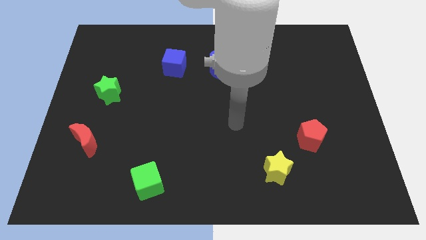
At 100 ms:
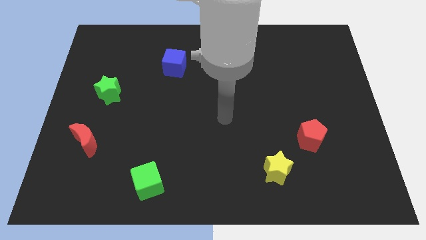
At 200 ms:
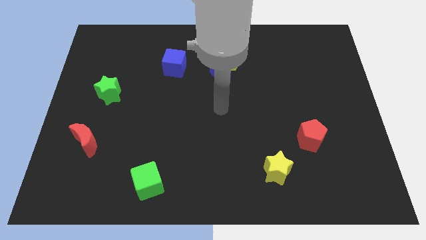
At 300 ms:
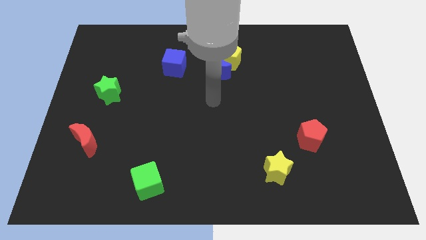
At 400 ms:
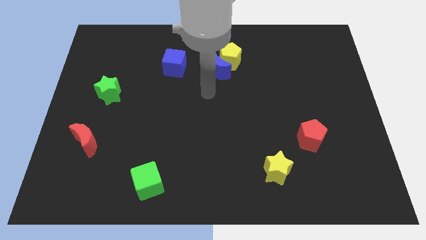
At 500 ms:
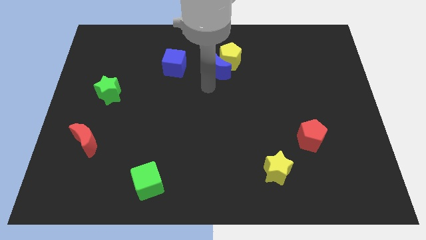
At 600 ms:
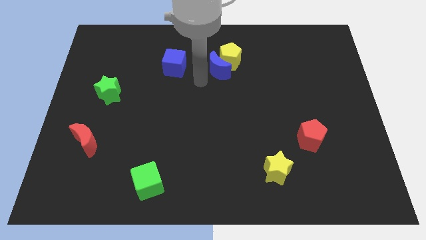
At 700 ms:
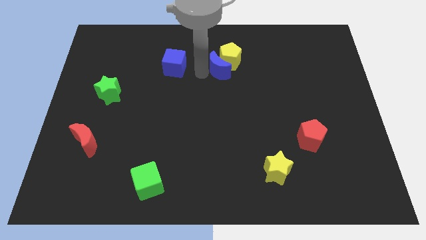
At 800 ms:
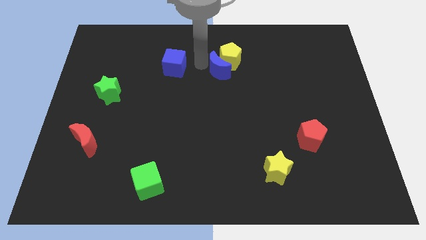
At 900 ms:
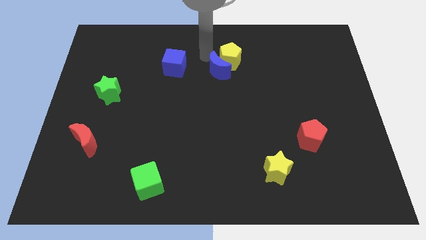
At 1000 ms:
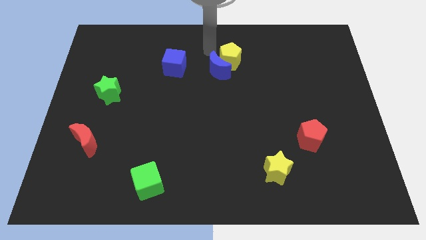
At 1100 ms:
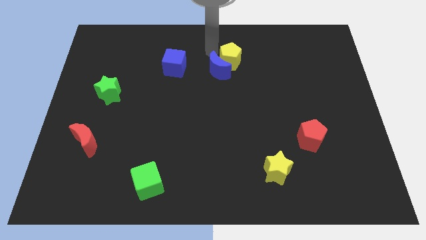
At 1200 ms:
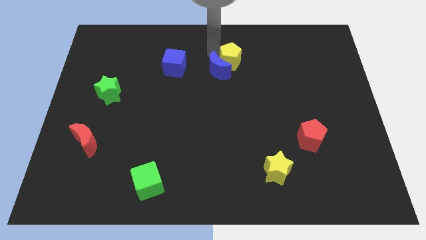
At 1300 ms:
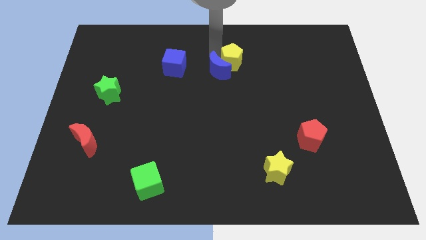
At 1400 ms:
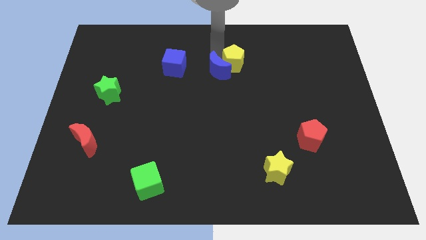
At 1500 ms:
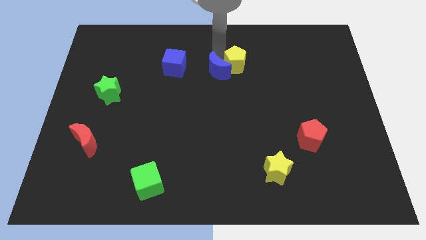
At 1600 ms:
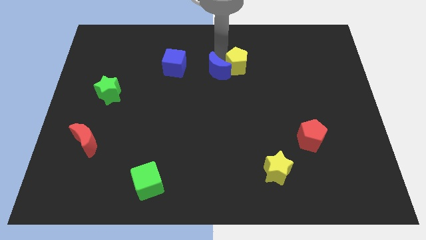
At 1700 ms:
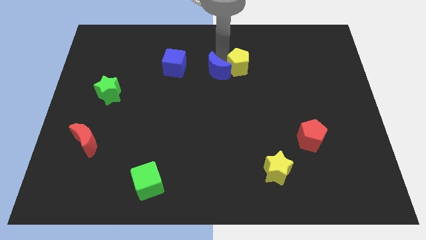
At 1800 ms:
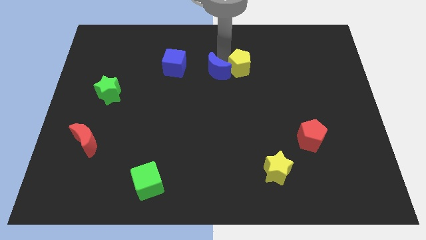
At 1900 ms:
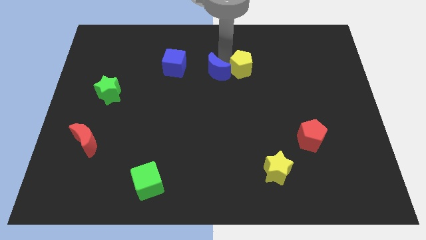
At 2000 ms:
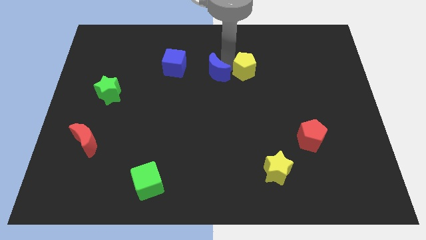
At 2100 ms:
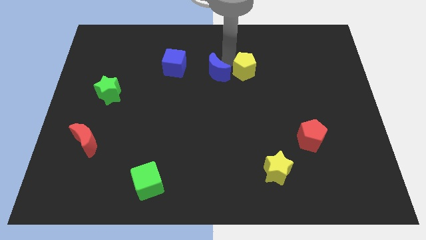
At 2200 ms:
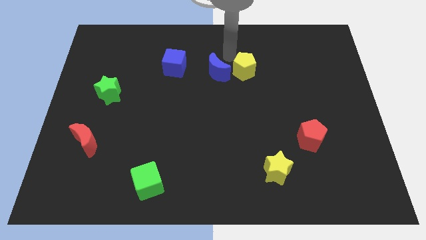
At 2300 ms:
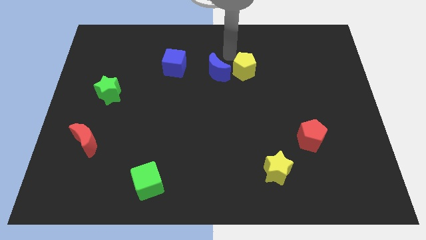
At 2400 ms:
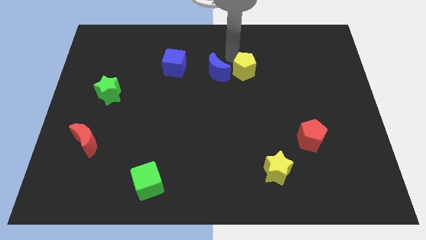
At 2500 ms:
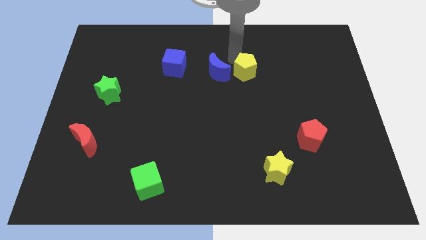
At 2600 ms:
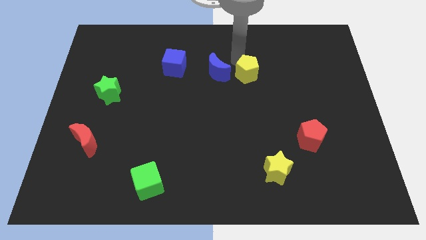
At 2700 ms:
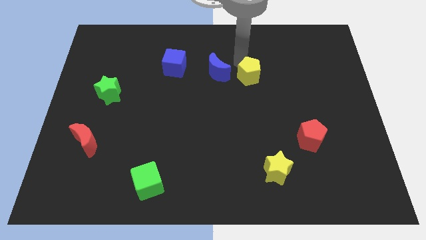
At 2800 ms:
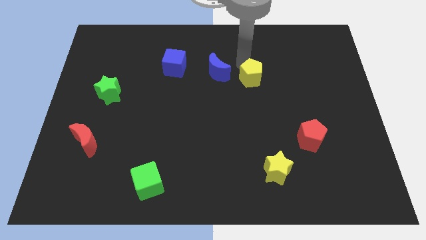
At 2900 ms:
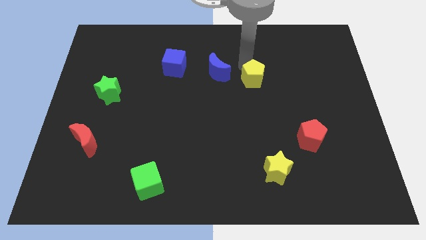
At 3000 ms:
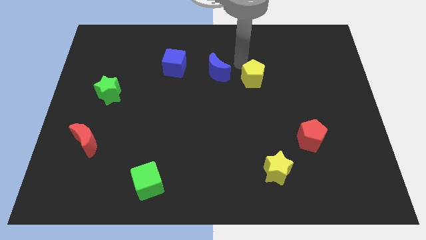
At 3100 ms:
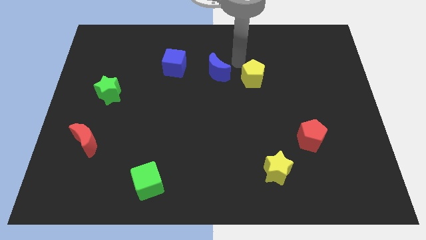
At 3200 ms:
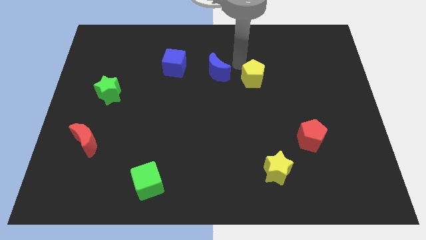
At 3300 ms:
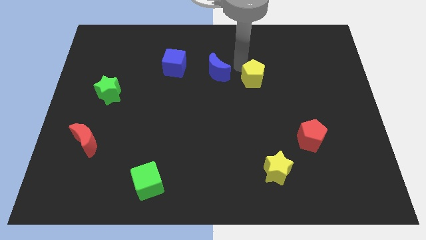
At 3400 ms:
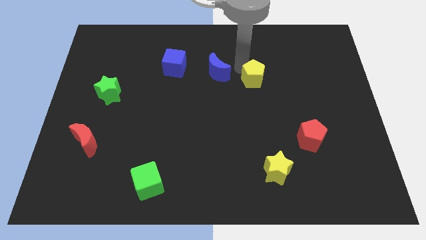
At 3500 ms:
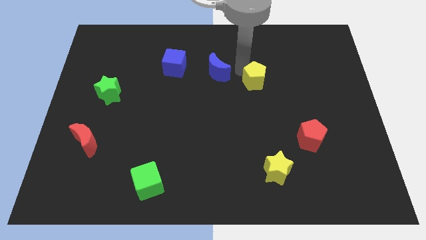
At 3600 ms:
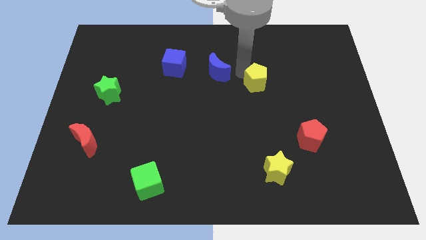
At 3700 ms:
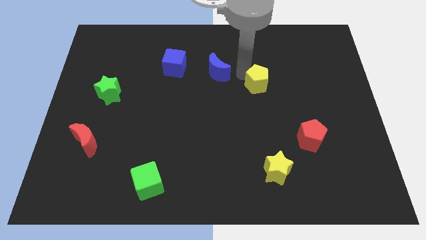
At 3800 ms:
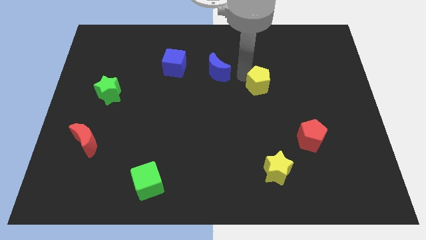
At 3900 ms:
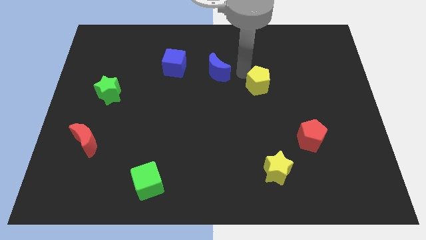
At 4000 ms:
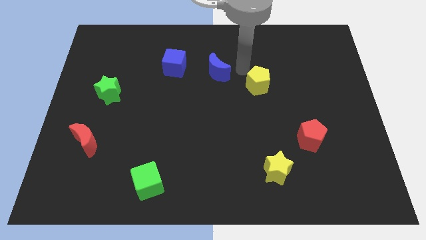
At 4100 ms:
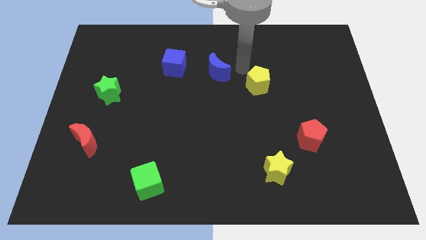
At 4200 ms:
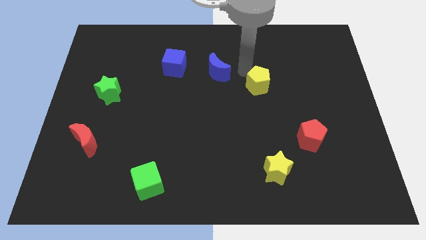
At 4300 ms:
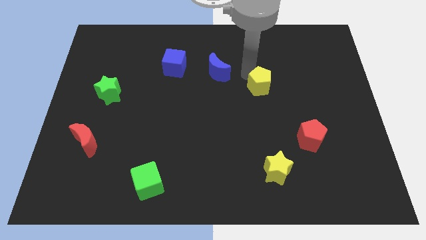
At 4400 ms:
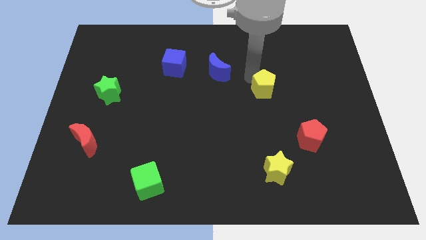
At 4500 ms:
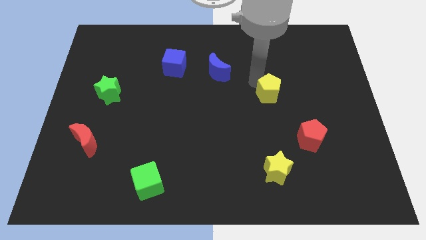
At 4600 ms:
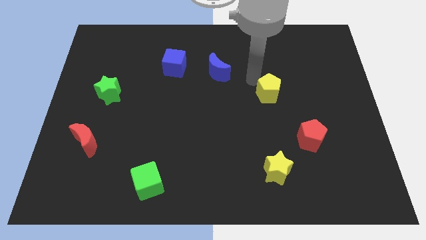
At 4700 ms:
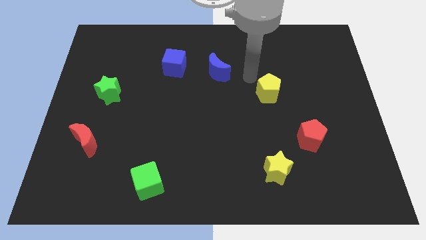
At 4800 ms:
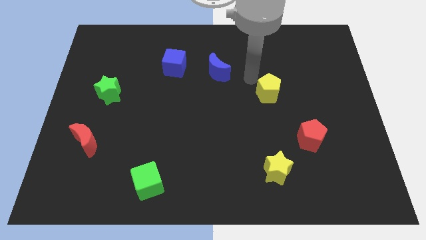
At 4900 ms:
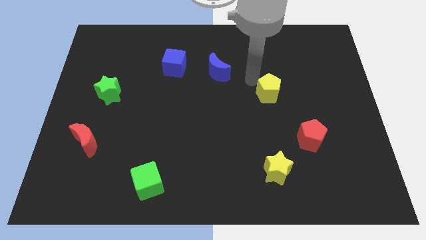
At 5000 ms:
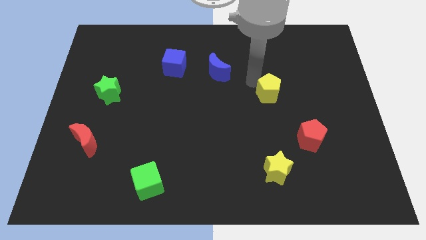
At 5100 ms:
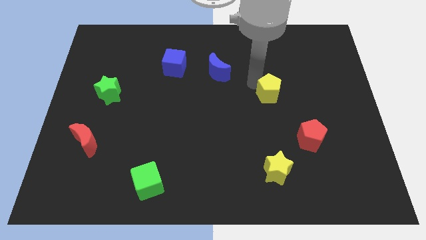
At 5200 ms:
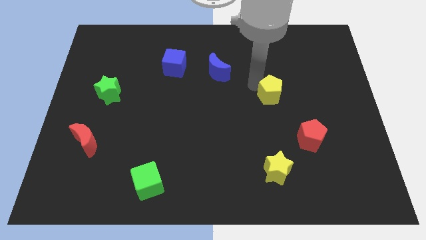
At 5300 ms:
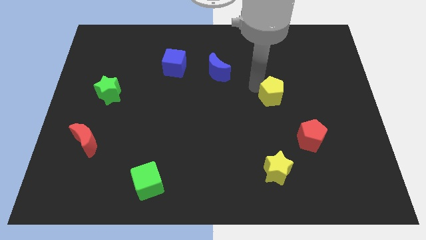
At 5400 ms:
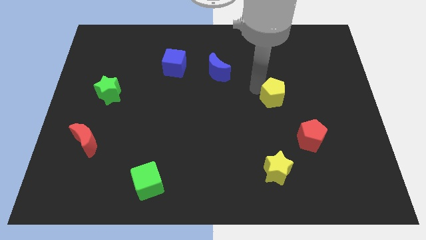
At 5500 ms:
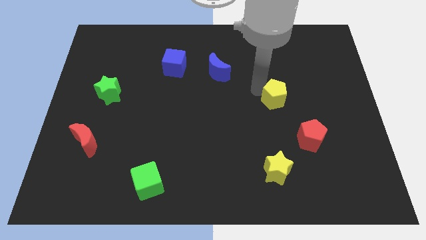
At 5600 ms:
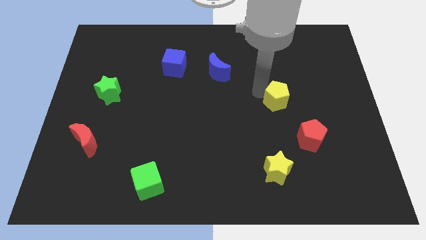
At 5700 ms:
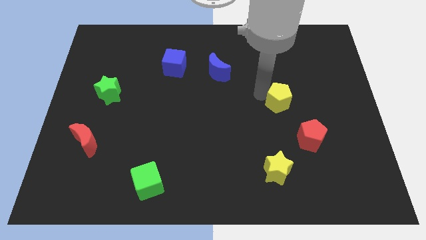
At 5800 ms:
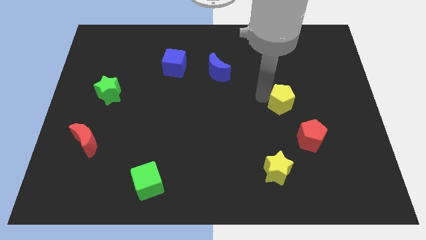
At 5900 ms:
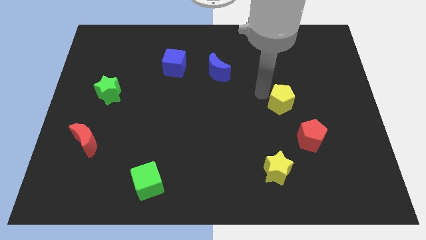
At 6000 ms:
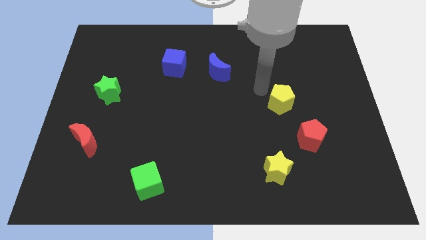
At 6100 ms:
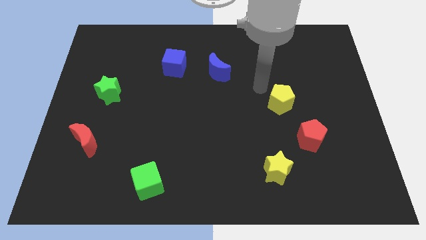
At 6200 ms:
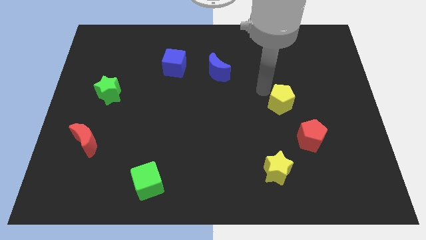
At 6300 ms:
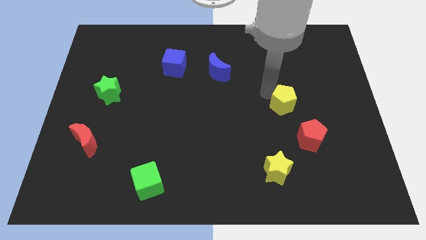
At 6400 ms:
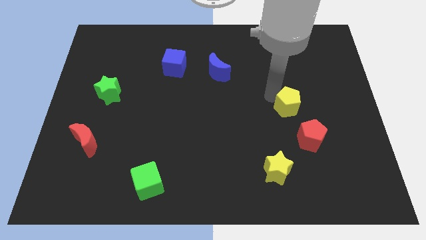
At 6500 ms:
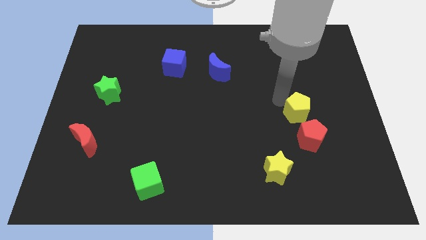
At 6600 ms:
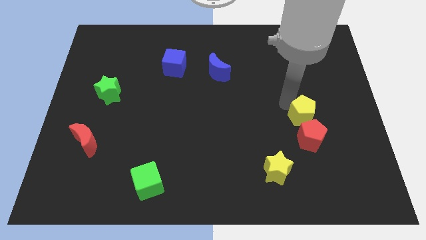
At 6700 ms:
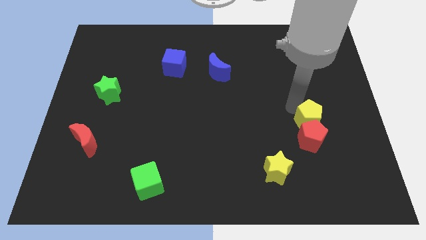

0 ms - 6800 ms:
put the yellow pentagon close to the red pentagon

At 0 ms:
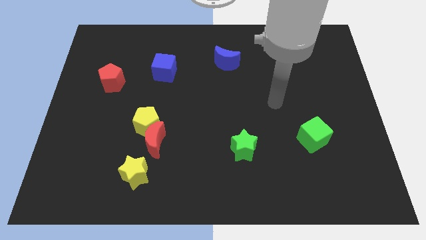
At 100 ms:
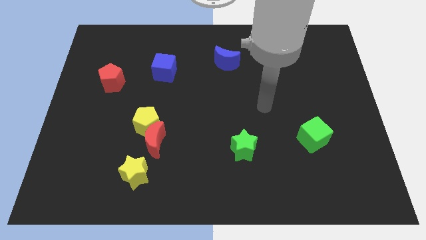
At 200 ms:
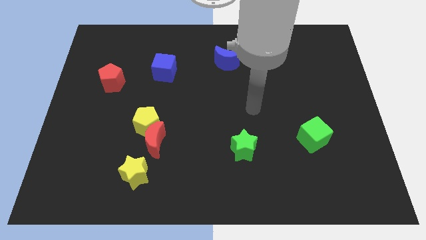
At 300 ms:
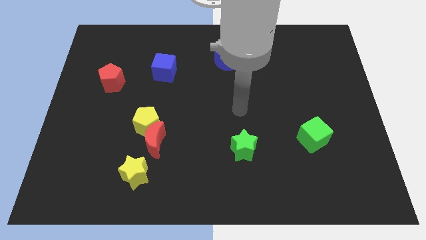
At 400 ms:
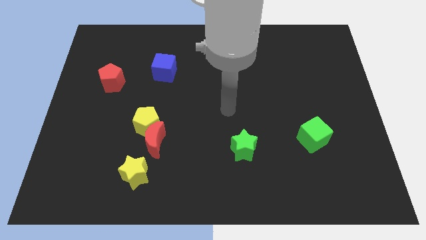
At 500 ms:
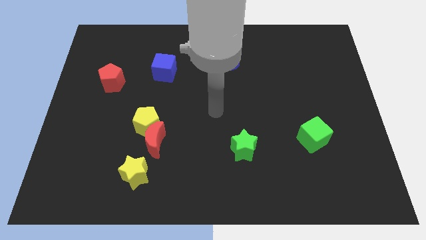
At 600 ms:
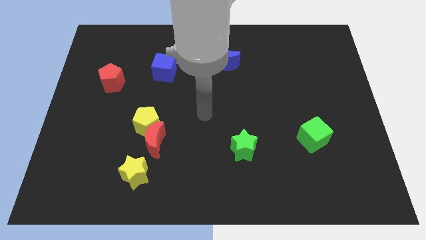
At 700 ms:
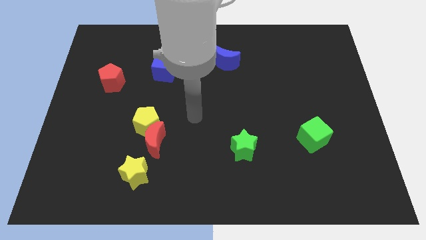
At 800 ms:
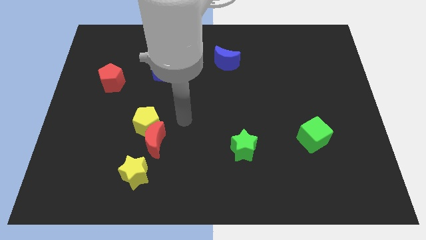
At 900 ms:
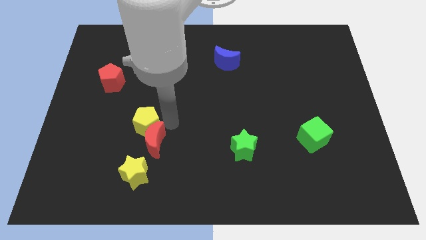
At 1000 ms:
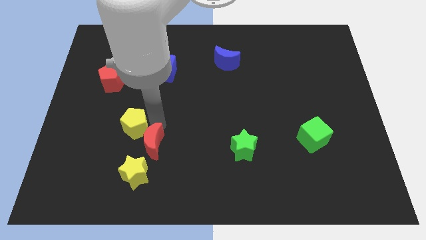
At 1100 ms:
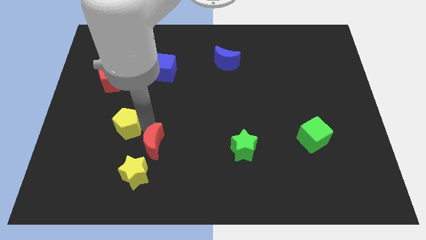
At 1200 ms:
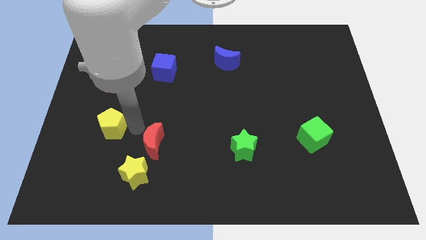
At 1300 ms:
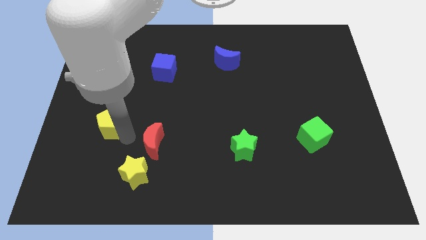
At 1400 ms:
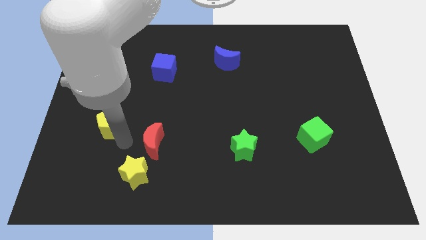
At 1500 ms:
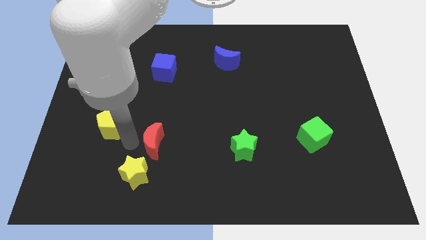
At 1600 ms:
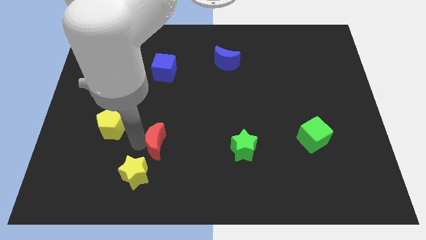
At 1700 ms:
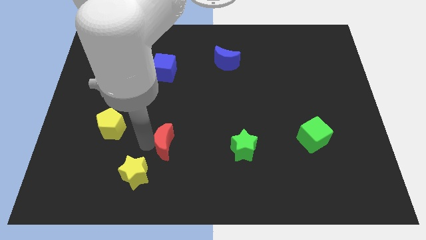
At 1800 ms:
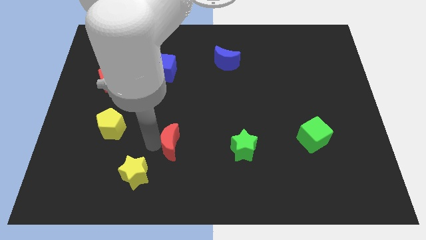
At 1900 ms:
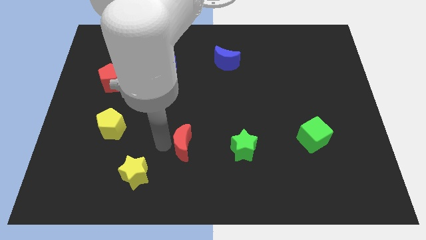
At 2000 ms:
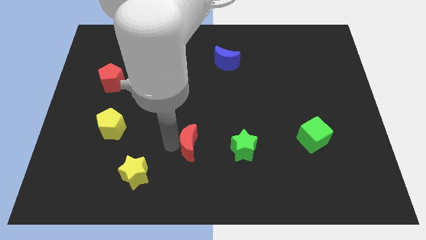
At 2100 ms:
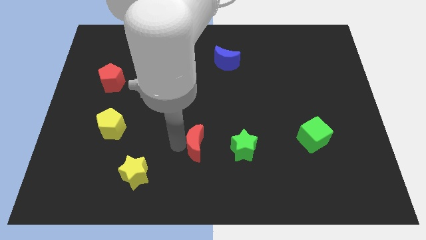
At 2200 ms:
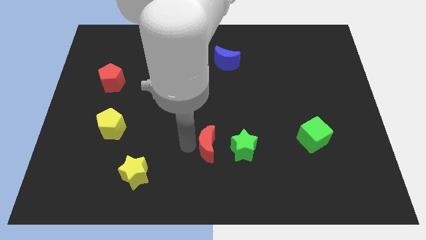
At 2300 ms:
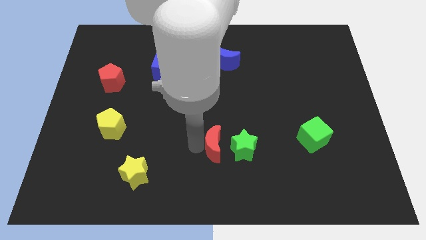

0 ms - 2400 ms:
put the red moon close to the green star
